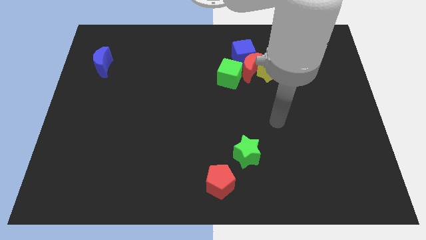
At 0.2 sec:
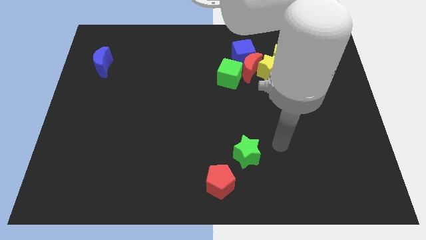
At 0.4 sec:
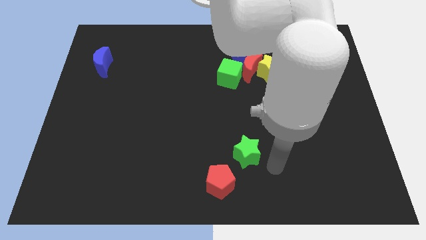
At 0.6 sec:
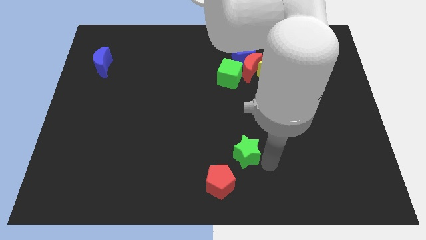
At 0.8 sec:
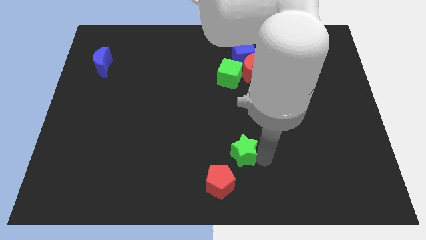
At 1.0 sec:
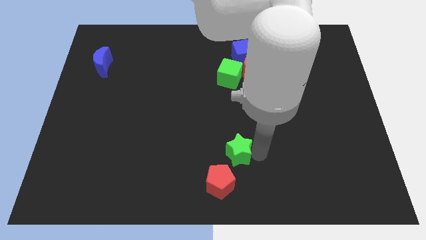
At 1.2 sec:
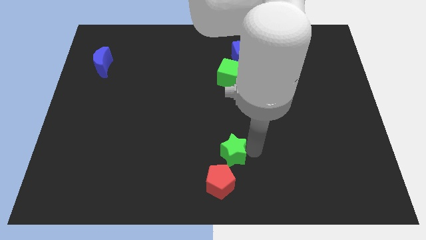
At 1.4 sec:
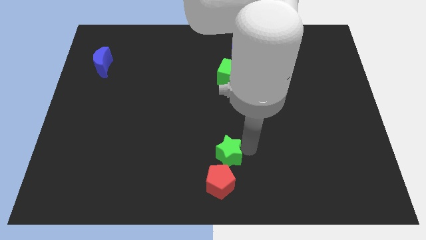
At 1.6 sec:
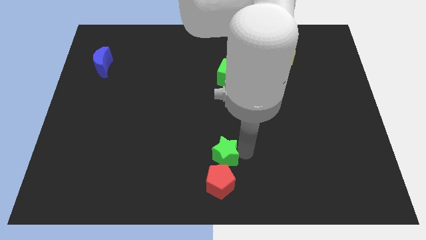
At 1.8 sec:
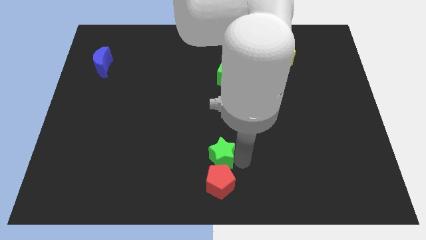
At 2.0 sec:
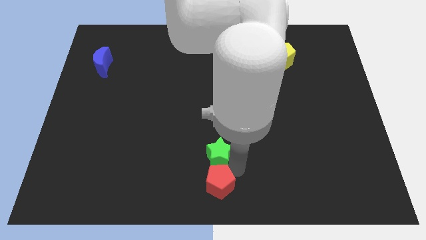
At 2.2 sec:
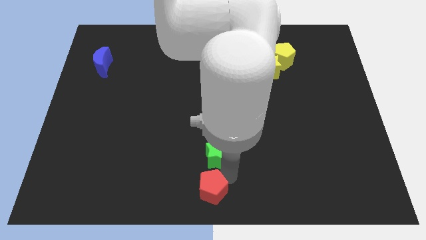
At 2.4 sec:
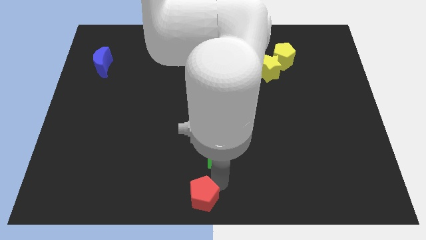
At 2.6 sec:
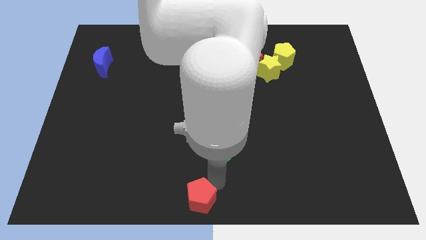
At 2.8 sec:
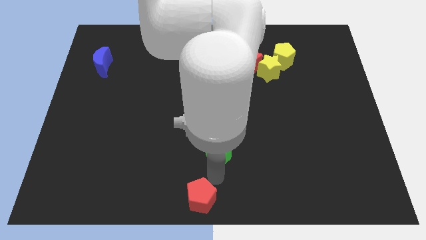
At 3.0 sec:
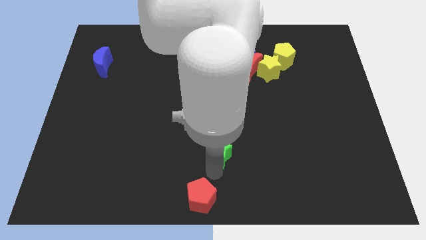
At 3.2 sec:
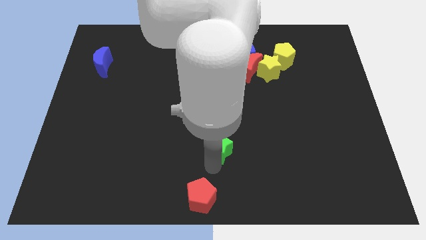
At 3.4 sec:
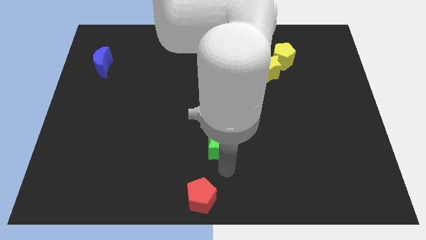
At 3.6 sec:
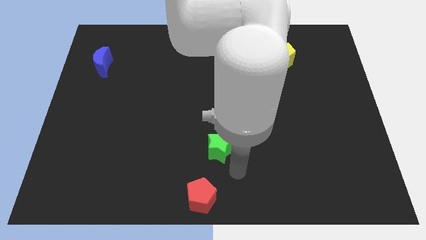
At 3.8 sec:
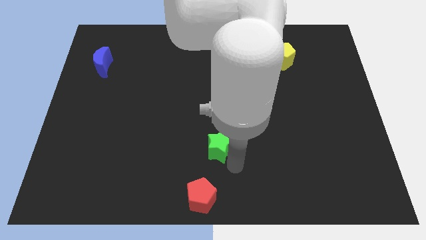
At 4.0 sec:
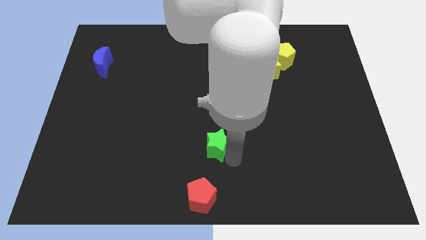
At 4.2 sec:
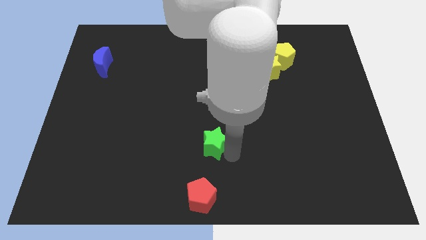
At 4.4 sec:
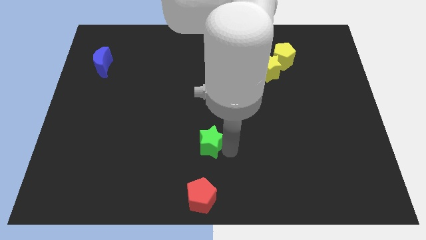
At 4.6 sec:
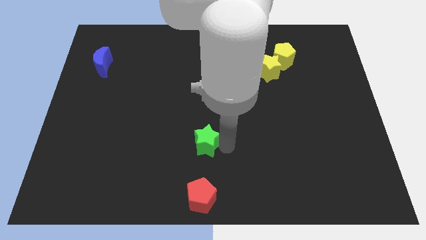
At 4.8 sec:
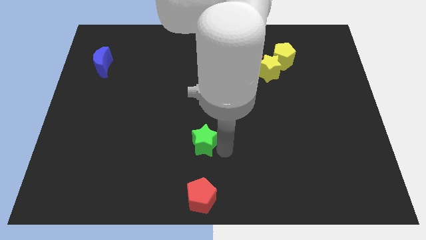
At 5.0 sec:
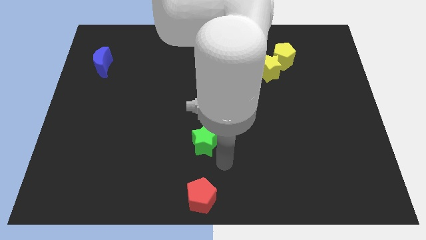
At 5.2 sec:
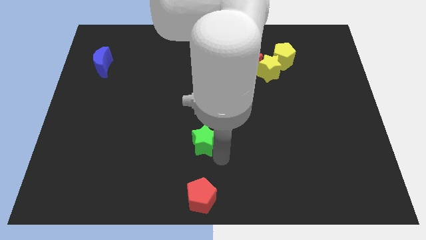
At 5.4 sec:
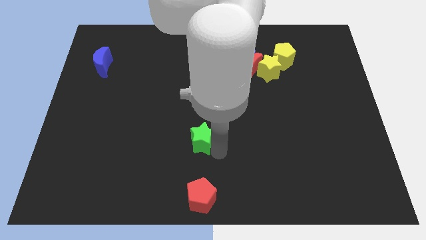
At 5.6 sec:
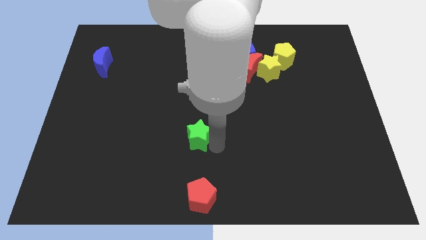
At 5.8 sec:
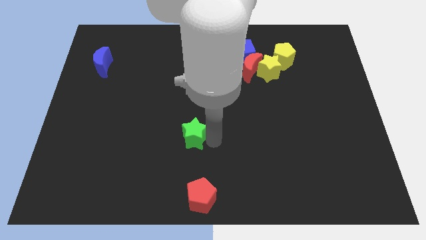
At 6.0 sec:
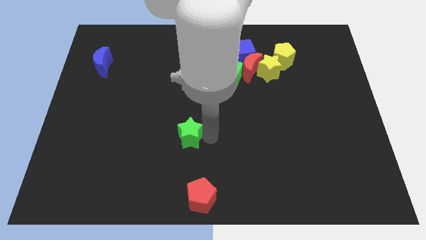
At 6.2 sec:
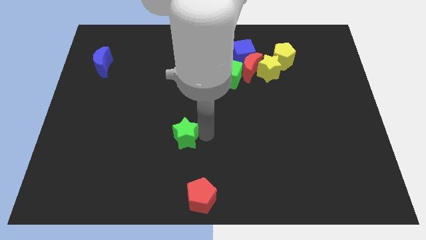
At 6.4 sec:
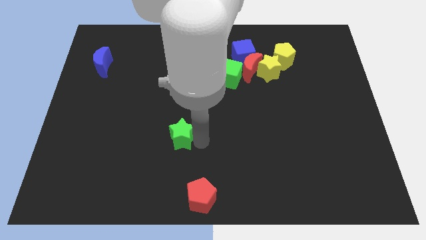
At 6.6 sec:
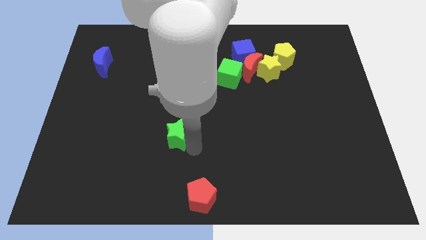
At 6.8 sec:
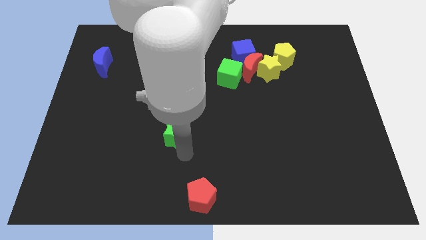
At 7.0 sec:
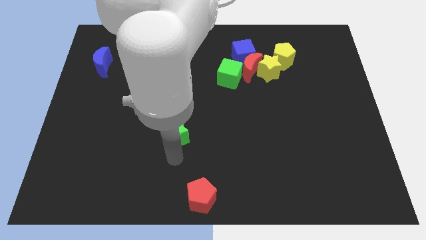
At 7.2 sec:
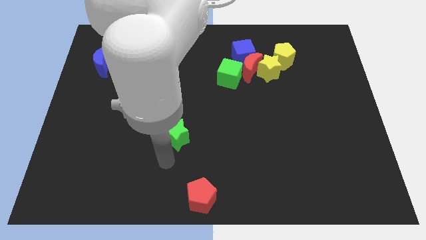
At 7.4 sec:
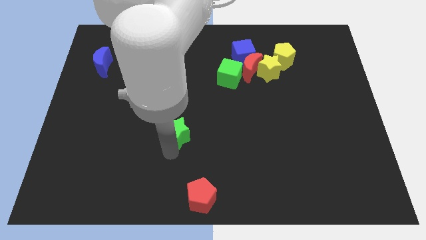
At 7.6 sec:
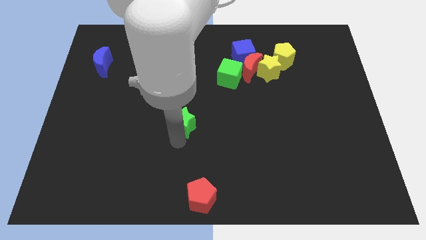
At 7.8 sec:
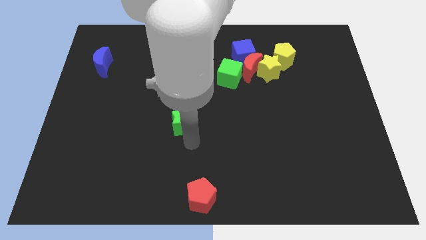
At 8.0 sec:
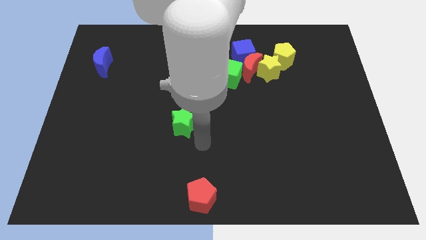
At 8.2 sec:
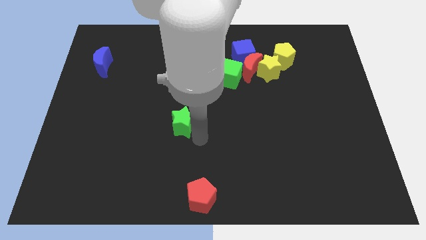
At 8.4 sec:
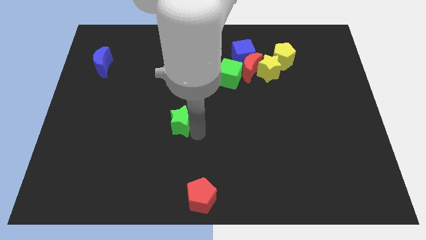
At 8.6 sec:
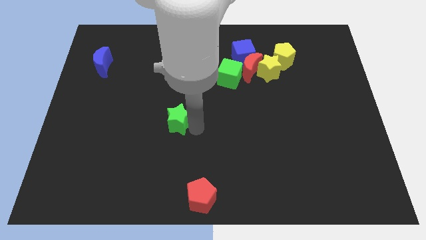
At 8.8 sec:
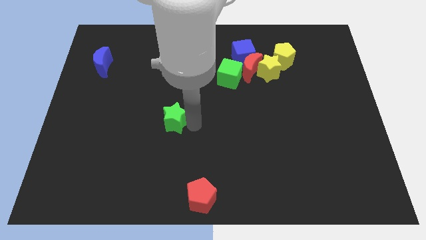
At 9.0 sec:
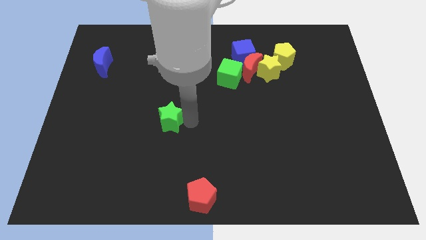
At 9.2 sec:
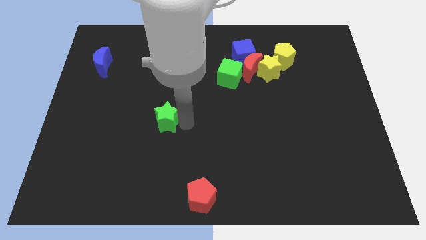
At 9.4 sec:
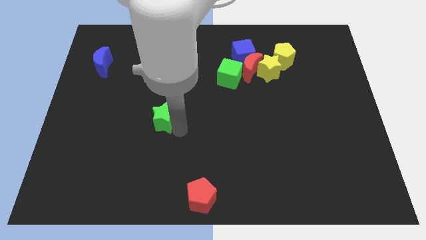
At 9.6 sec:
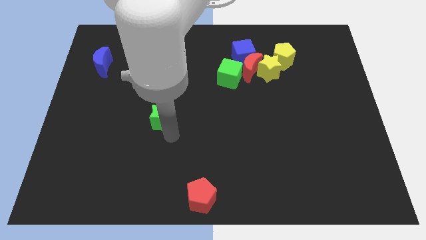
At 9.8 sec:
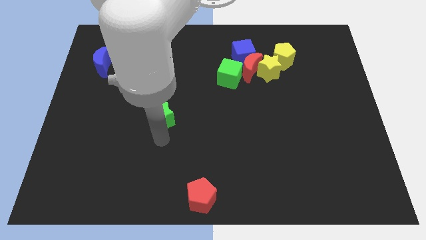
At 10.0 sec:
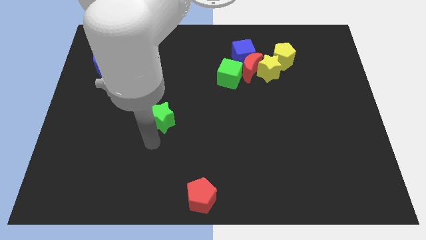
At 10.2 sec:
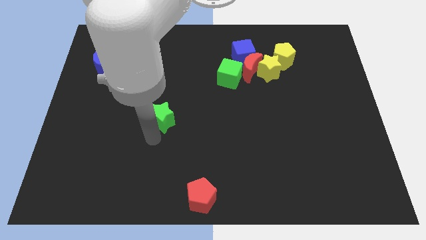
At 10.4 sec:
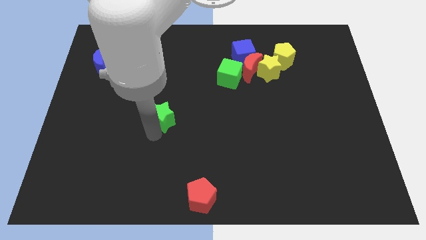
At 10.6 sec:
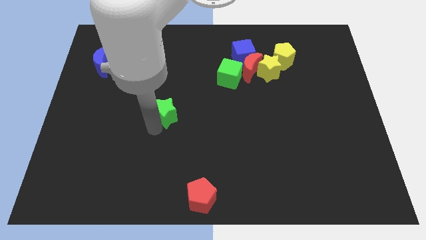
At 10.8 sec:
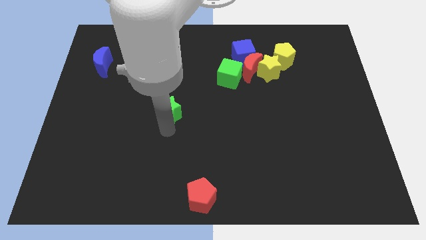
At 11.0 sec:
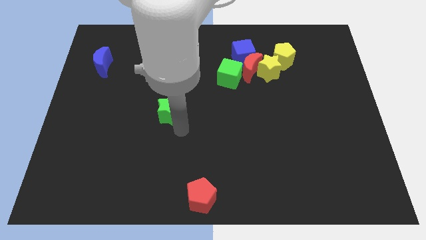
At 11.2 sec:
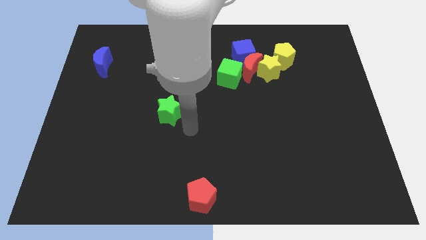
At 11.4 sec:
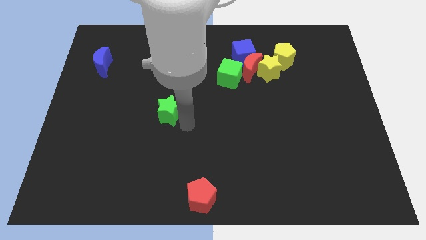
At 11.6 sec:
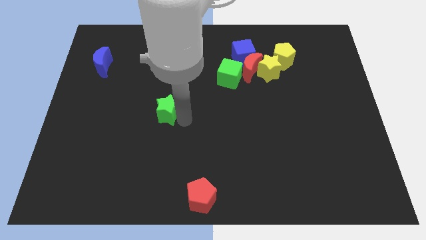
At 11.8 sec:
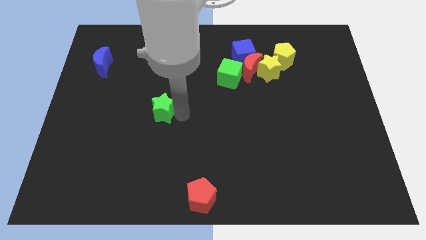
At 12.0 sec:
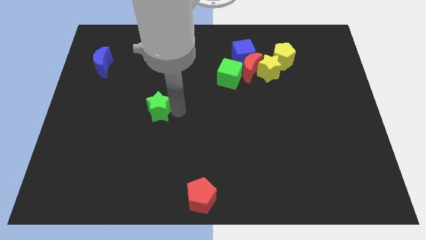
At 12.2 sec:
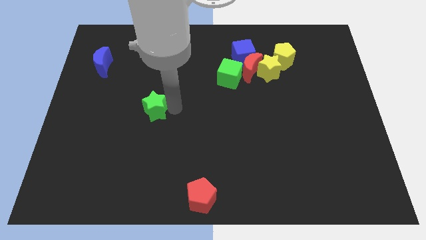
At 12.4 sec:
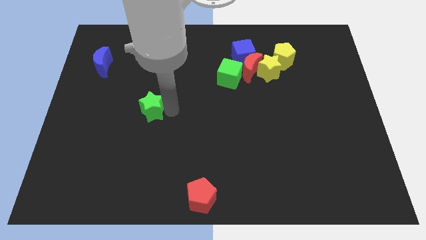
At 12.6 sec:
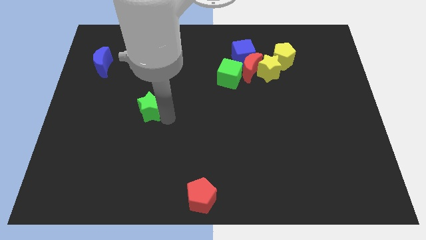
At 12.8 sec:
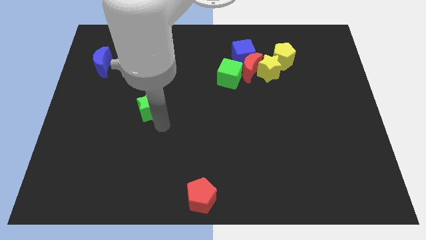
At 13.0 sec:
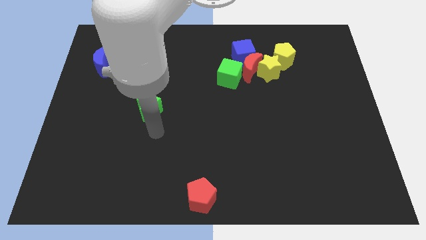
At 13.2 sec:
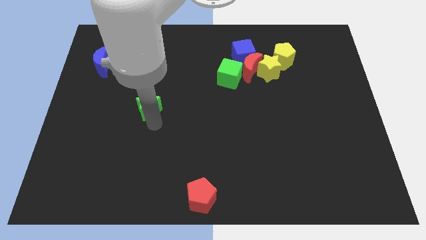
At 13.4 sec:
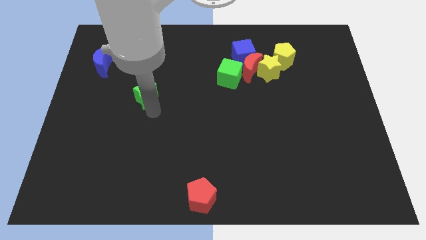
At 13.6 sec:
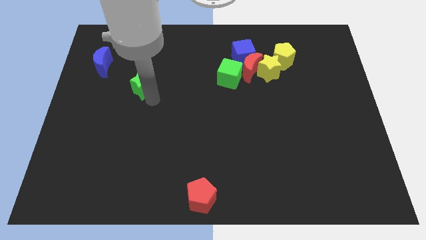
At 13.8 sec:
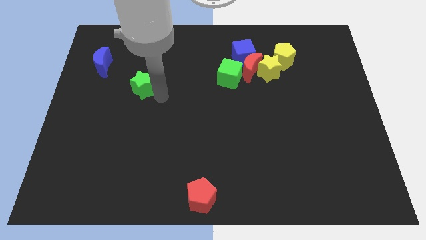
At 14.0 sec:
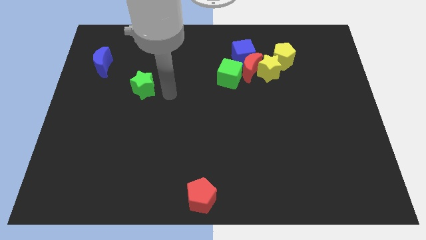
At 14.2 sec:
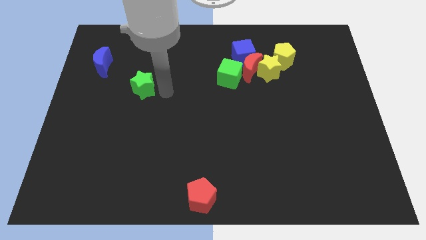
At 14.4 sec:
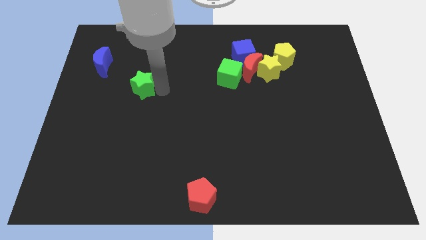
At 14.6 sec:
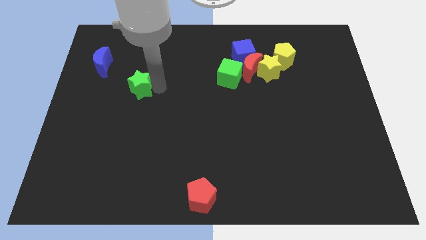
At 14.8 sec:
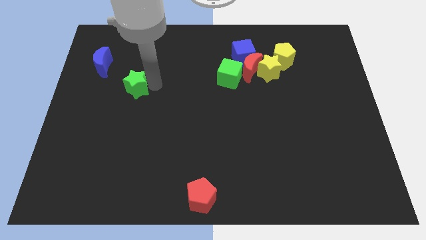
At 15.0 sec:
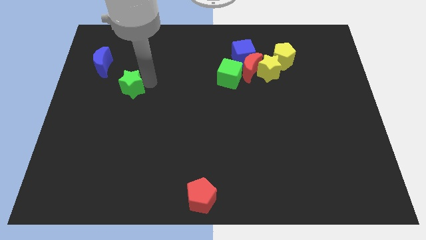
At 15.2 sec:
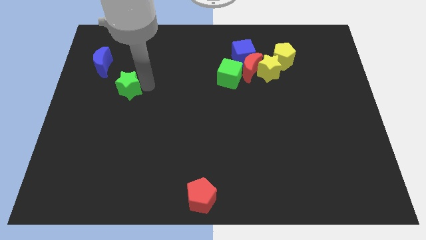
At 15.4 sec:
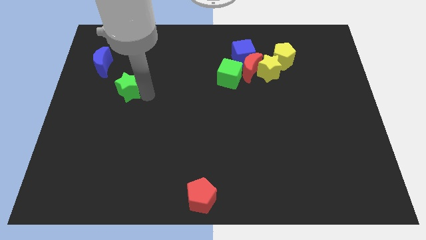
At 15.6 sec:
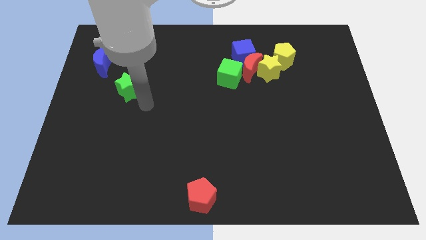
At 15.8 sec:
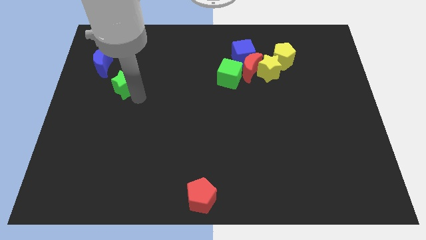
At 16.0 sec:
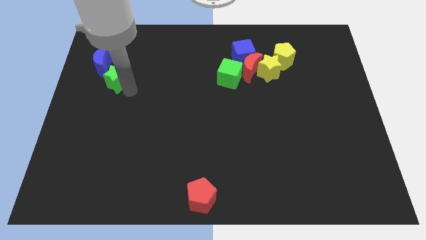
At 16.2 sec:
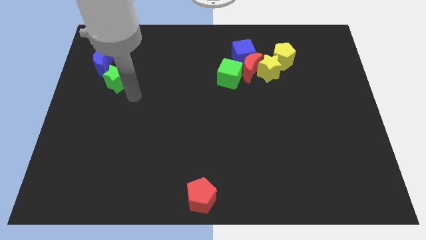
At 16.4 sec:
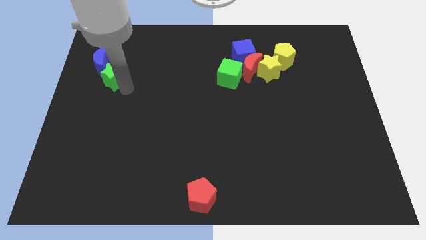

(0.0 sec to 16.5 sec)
slide the green star towards the blue moon
